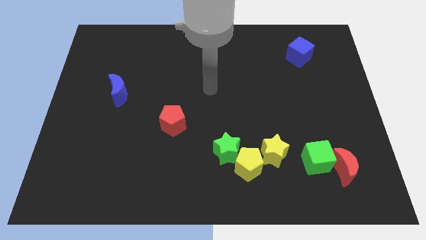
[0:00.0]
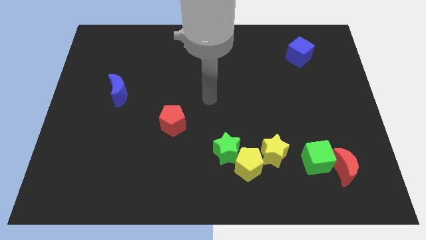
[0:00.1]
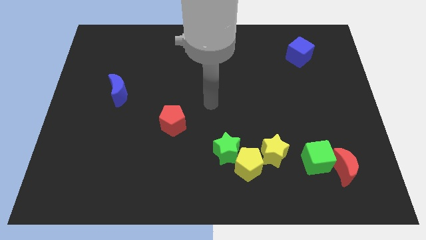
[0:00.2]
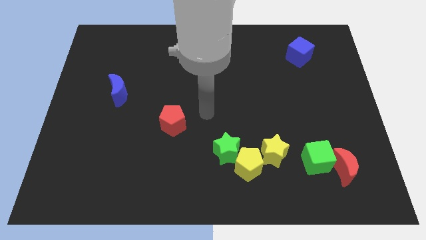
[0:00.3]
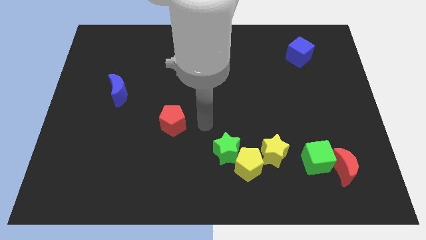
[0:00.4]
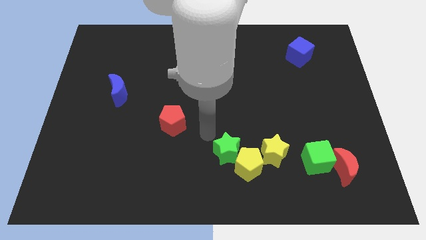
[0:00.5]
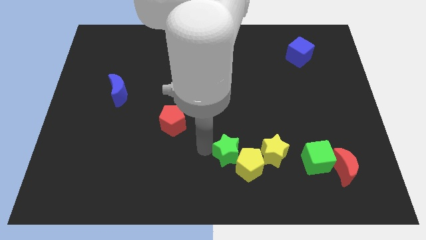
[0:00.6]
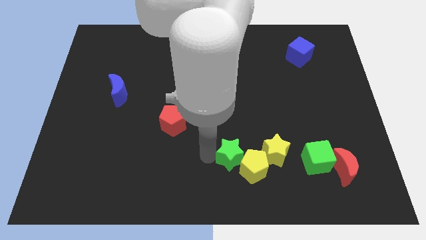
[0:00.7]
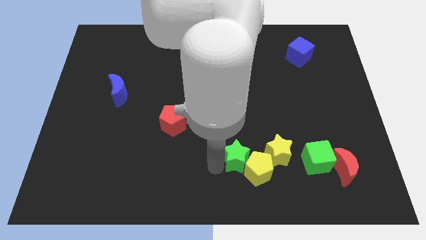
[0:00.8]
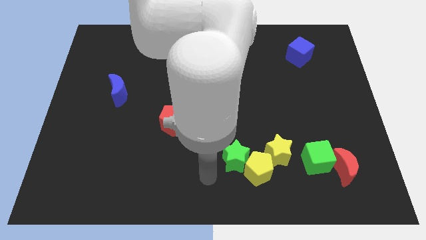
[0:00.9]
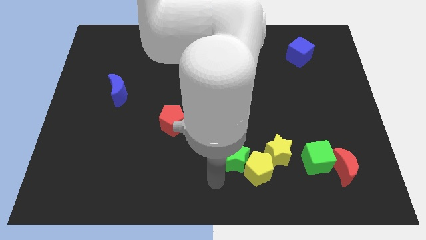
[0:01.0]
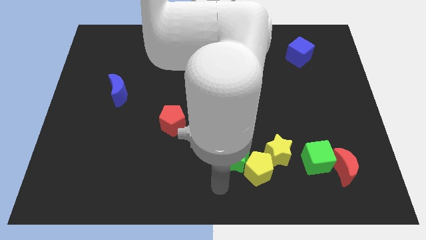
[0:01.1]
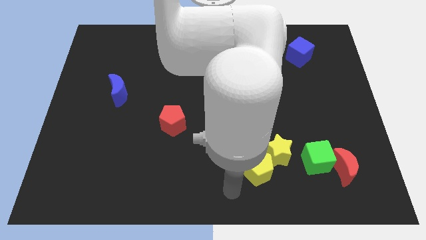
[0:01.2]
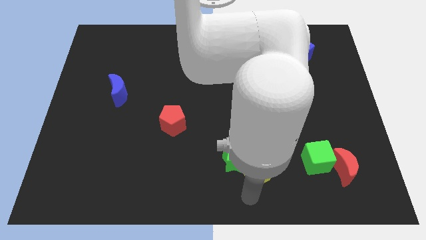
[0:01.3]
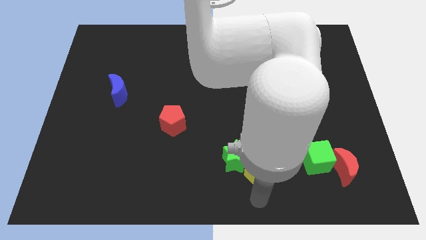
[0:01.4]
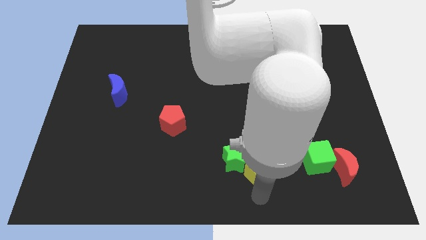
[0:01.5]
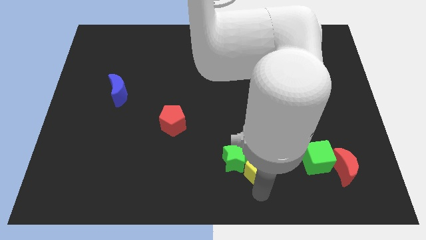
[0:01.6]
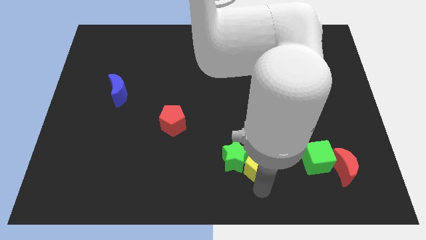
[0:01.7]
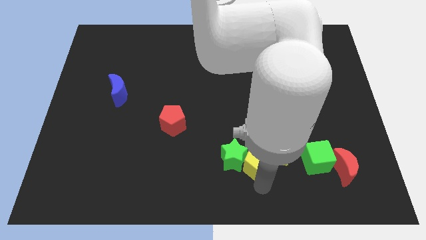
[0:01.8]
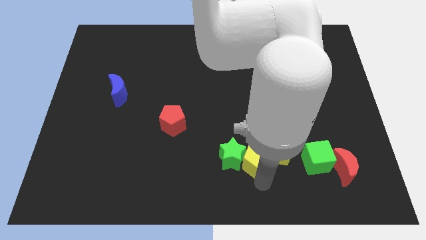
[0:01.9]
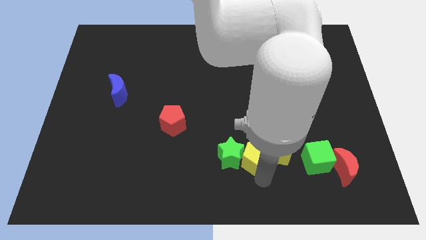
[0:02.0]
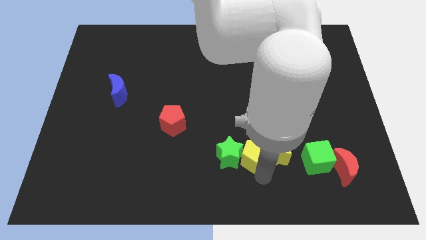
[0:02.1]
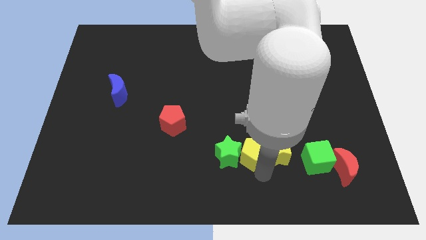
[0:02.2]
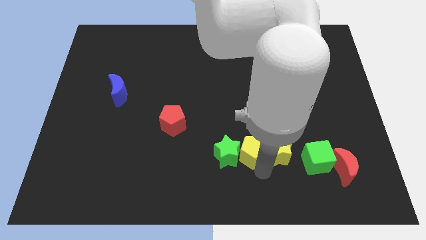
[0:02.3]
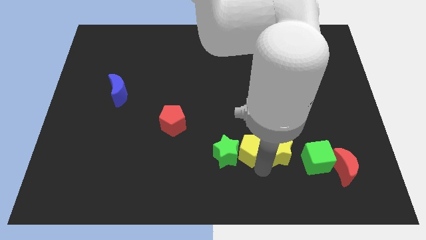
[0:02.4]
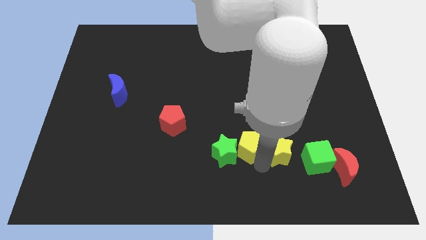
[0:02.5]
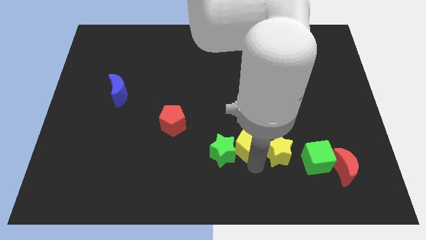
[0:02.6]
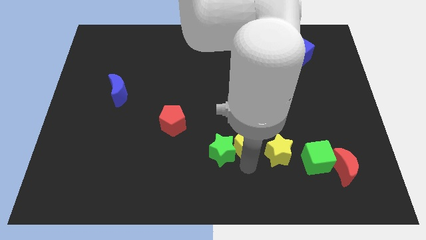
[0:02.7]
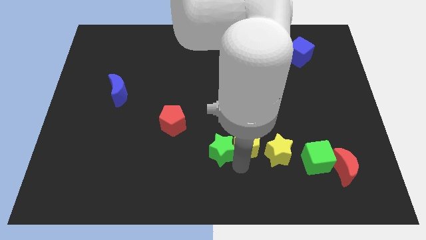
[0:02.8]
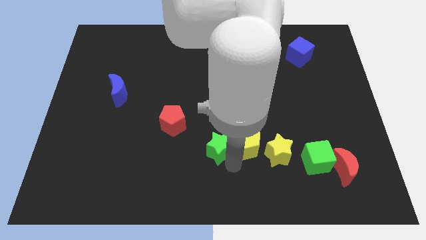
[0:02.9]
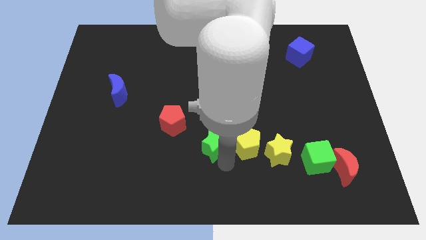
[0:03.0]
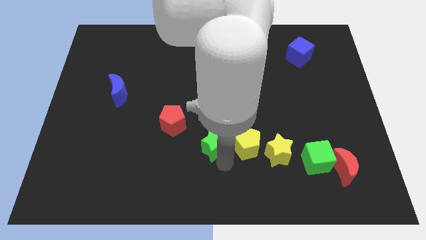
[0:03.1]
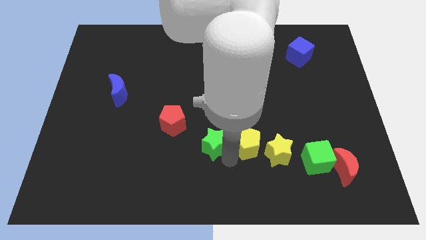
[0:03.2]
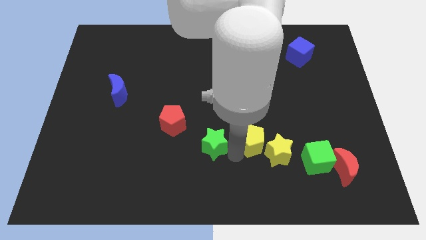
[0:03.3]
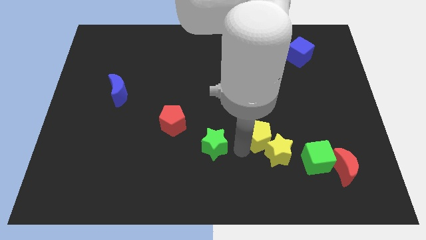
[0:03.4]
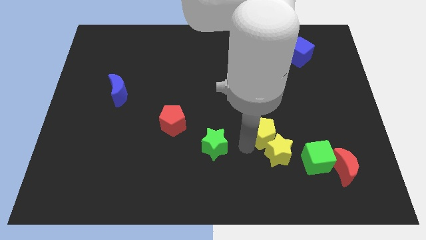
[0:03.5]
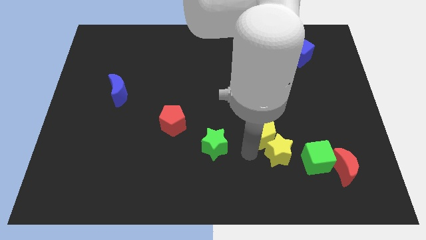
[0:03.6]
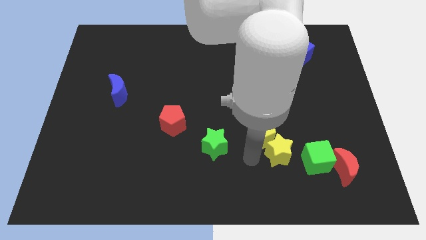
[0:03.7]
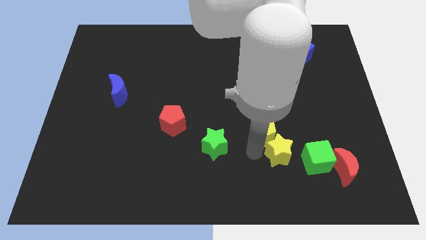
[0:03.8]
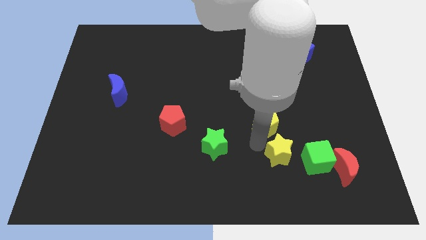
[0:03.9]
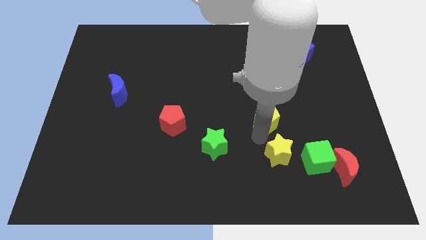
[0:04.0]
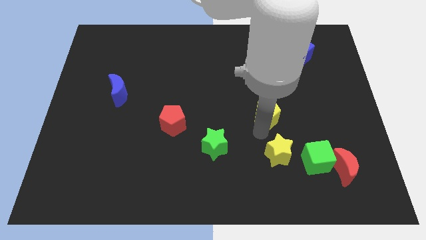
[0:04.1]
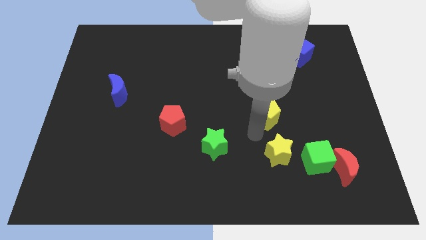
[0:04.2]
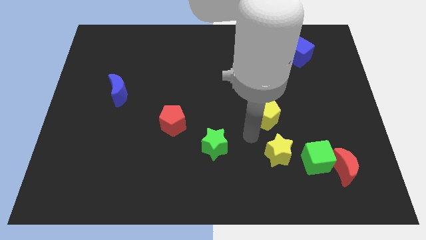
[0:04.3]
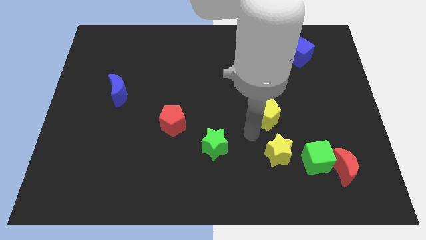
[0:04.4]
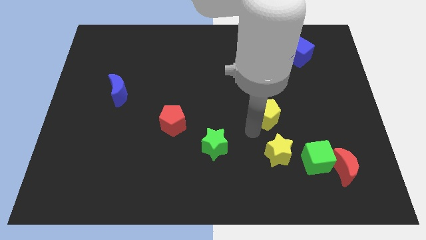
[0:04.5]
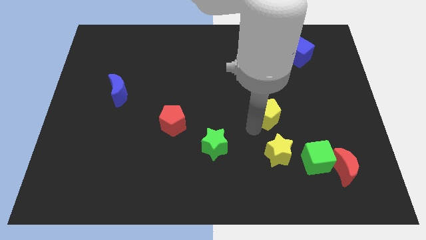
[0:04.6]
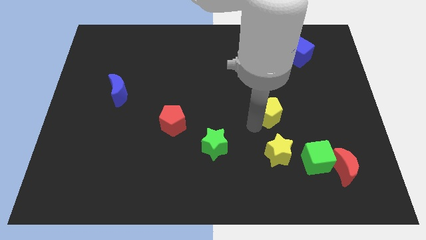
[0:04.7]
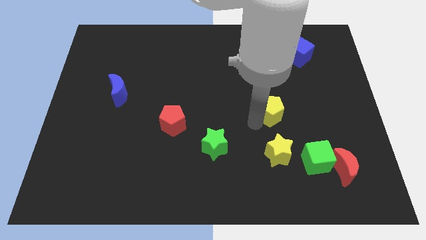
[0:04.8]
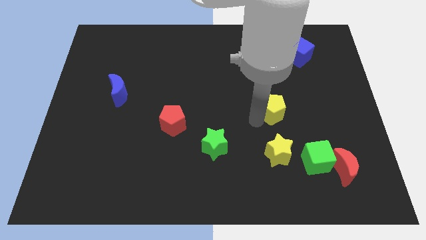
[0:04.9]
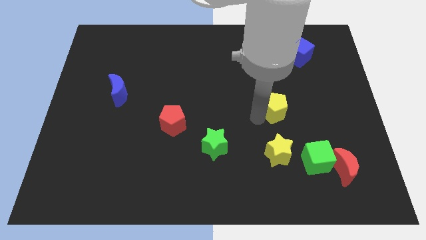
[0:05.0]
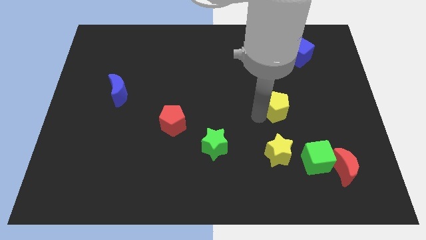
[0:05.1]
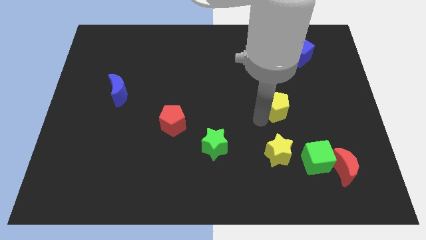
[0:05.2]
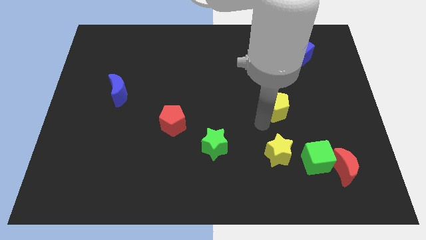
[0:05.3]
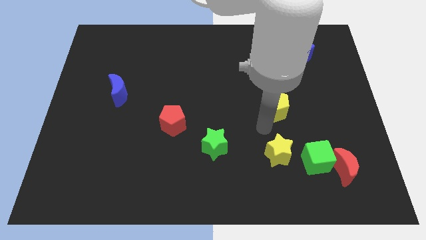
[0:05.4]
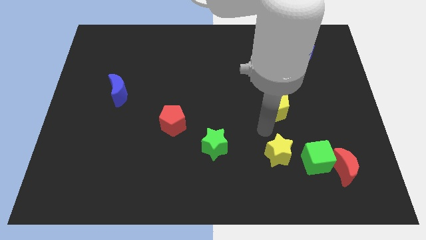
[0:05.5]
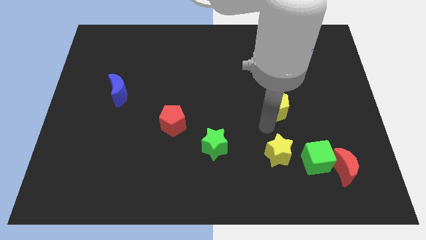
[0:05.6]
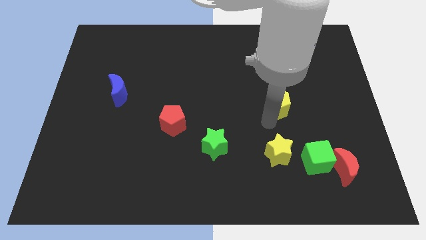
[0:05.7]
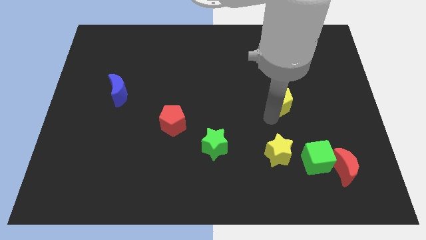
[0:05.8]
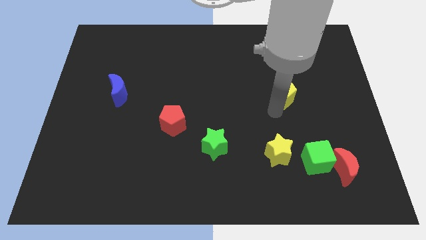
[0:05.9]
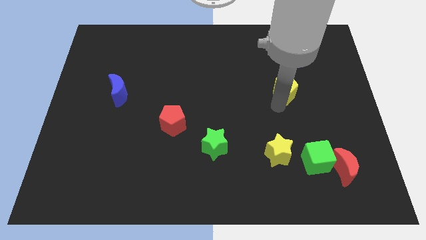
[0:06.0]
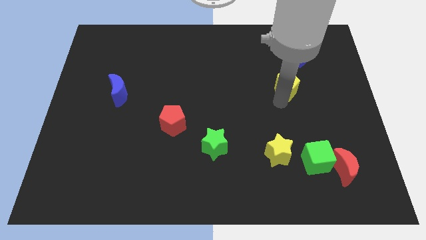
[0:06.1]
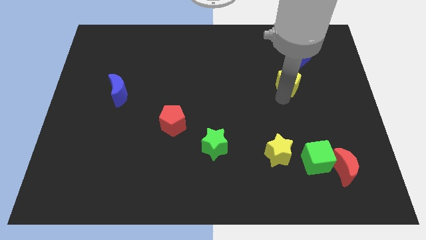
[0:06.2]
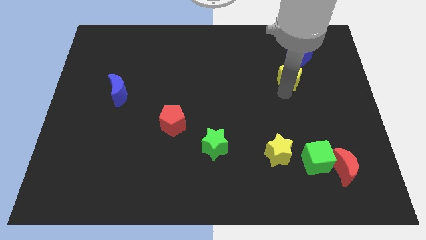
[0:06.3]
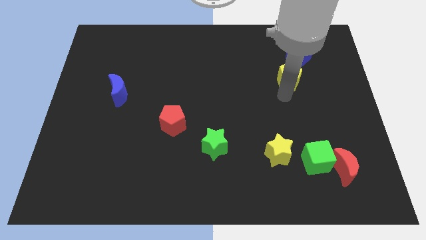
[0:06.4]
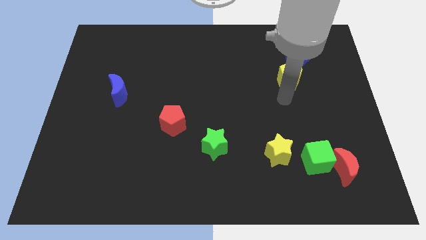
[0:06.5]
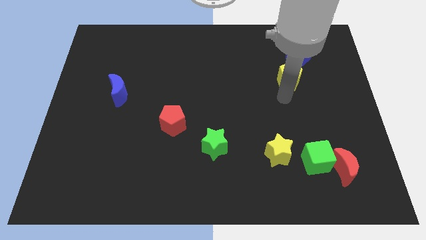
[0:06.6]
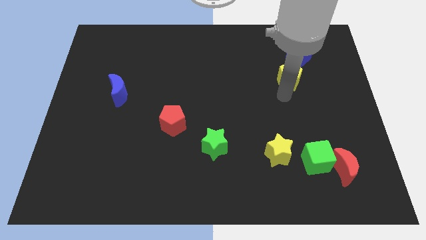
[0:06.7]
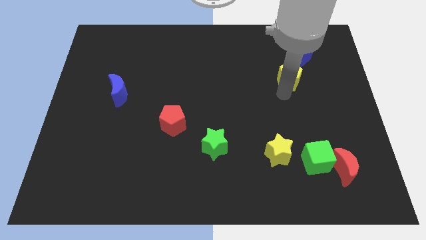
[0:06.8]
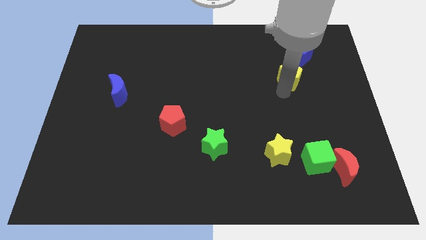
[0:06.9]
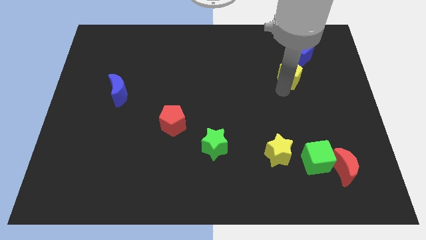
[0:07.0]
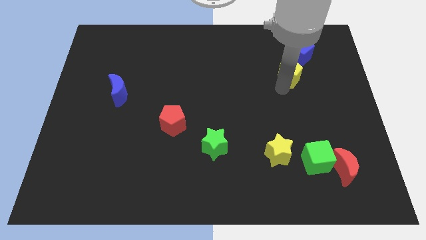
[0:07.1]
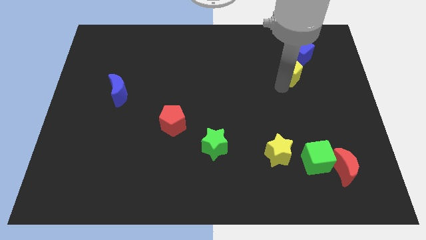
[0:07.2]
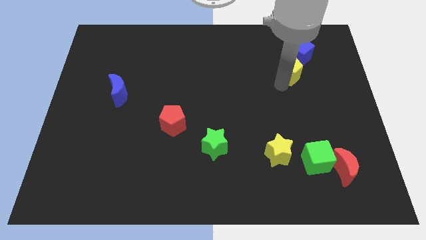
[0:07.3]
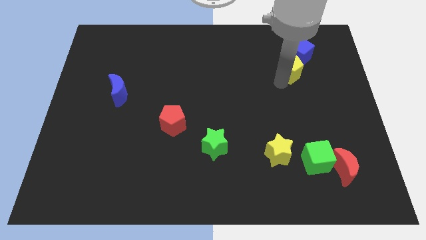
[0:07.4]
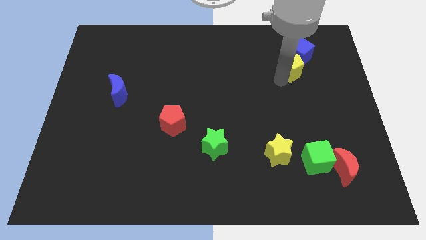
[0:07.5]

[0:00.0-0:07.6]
move the yellow pentagon close to the blue cube
